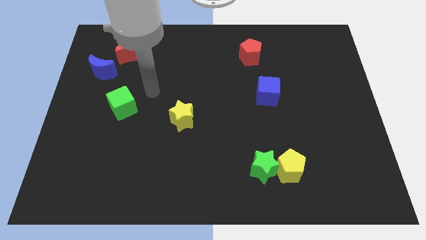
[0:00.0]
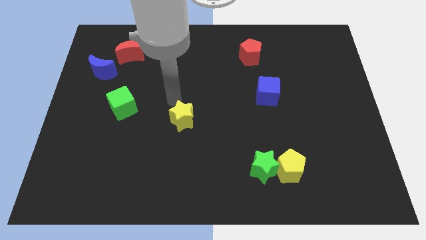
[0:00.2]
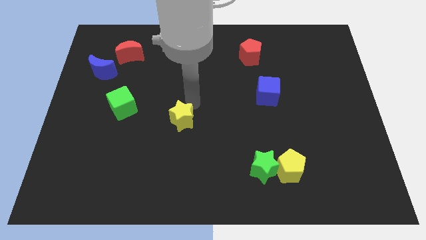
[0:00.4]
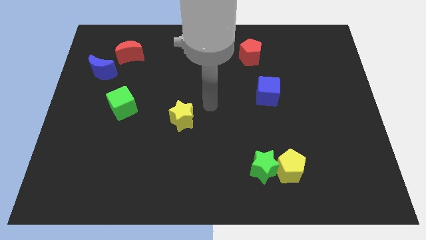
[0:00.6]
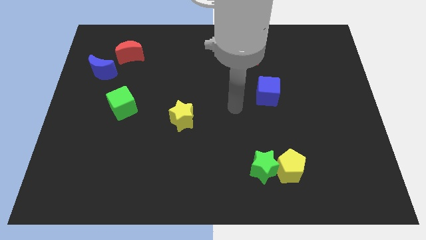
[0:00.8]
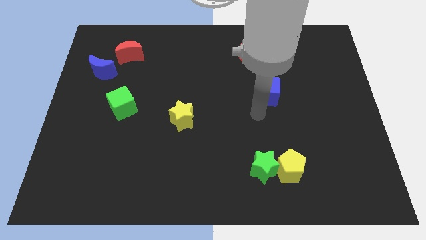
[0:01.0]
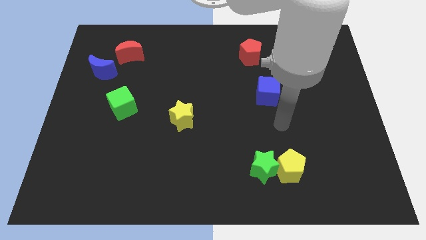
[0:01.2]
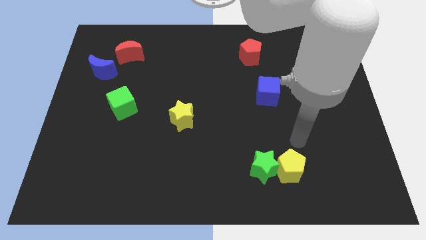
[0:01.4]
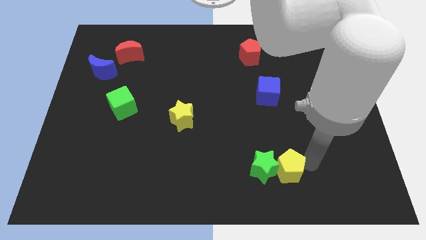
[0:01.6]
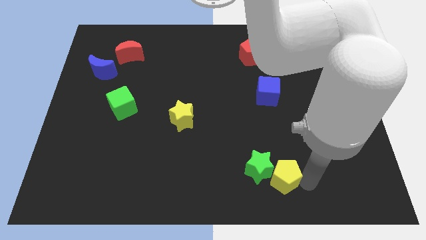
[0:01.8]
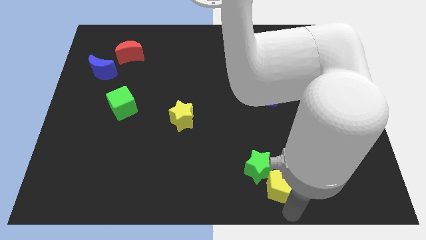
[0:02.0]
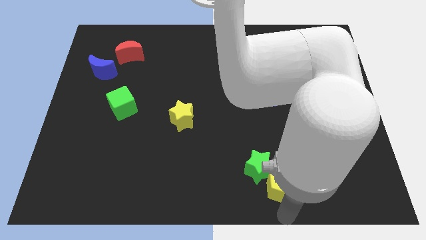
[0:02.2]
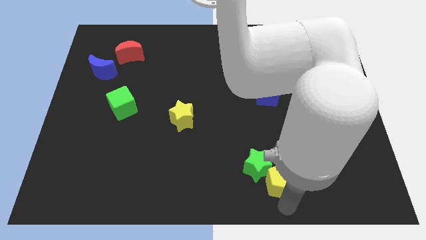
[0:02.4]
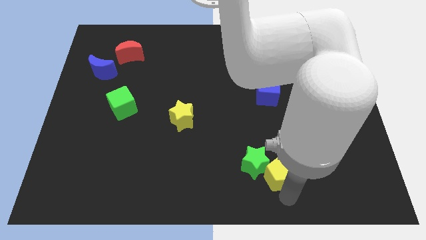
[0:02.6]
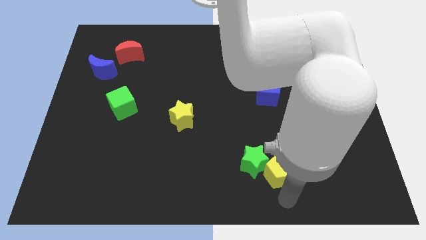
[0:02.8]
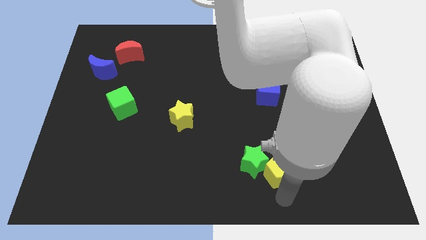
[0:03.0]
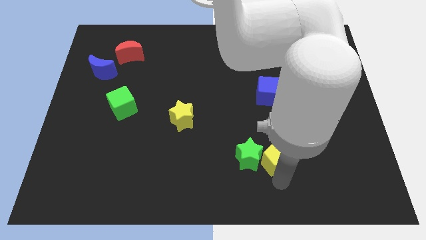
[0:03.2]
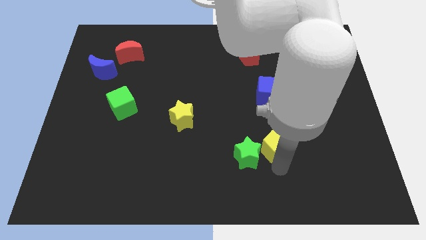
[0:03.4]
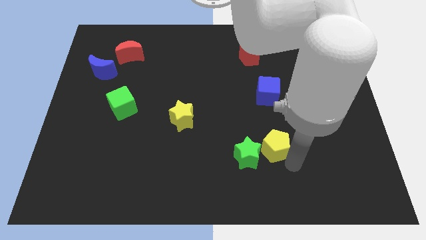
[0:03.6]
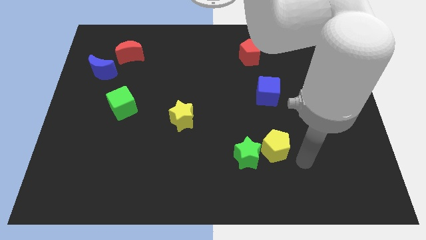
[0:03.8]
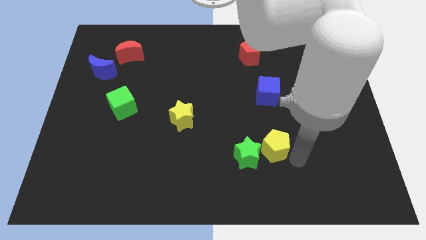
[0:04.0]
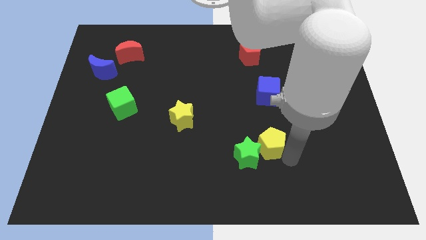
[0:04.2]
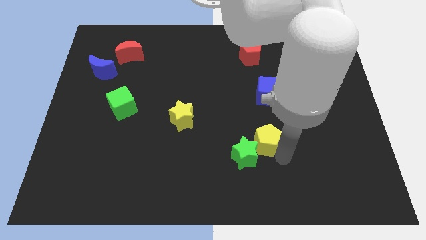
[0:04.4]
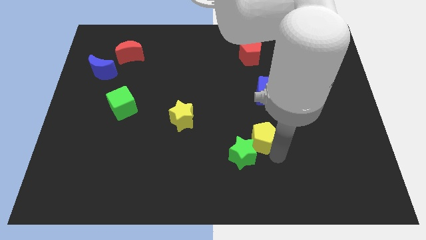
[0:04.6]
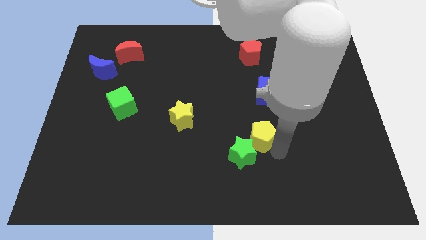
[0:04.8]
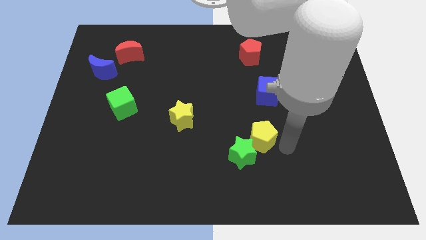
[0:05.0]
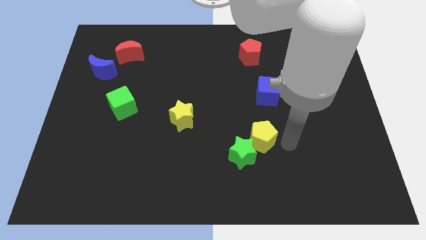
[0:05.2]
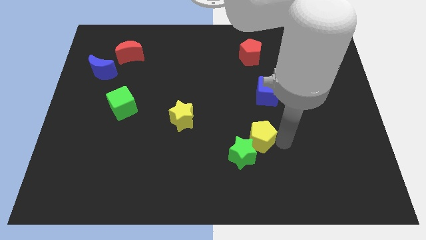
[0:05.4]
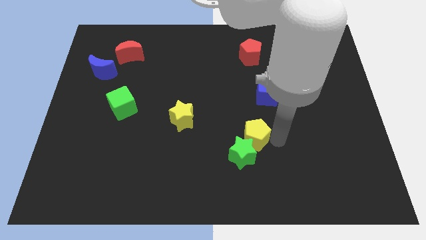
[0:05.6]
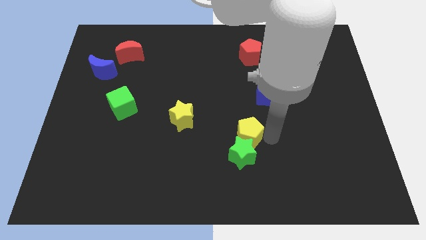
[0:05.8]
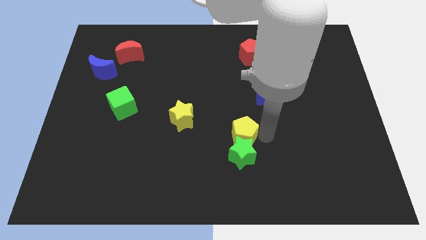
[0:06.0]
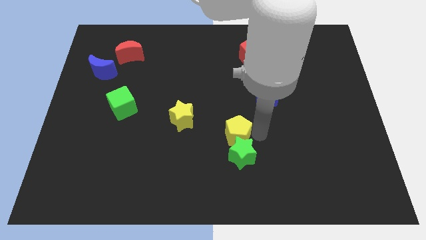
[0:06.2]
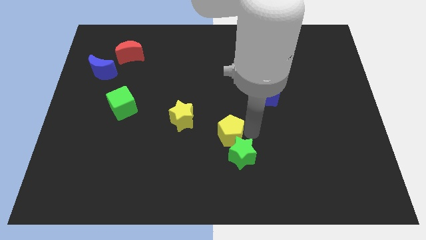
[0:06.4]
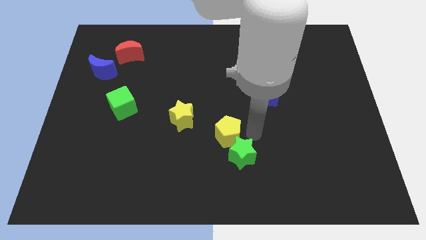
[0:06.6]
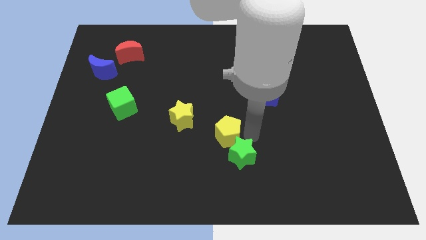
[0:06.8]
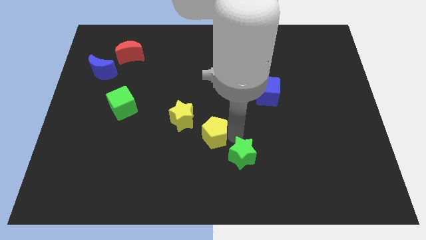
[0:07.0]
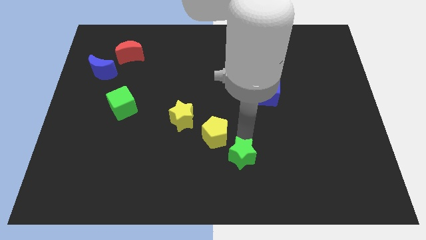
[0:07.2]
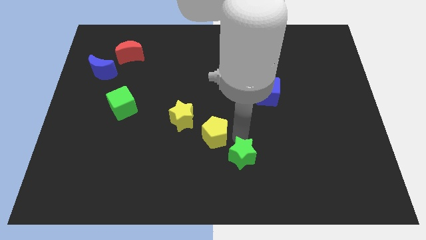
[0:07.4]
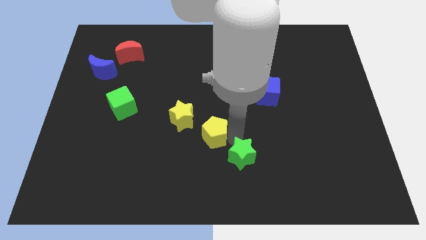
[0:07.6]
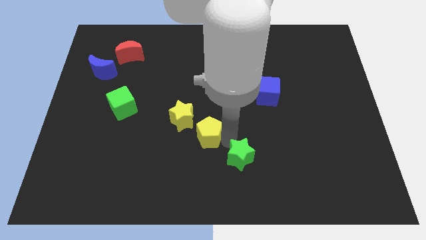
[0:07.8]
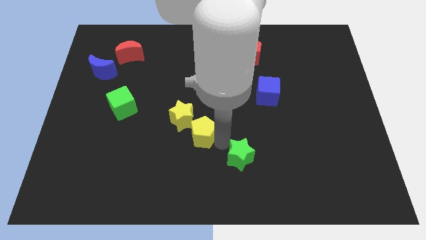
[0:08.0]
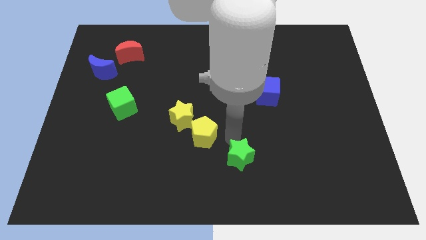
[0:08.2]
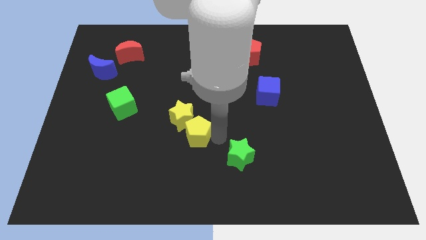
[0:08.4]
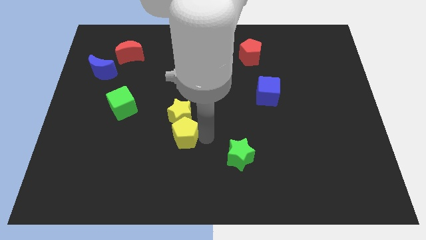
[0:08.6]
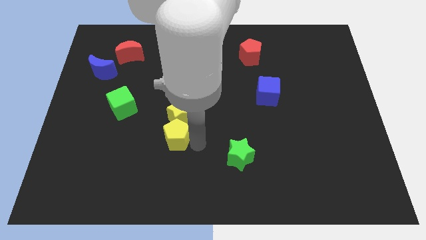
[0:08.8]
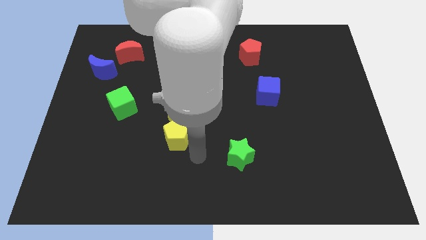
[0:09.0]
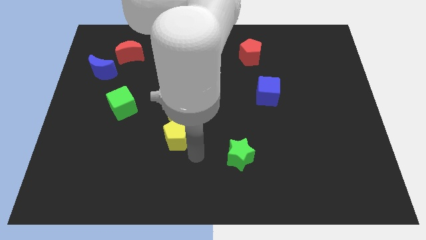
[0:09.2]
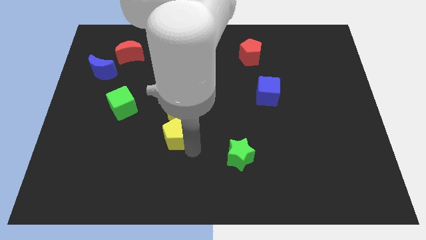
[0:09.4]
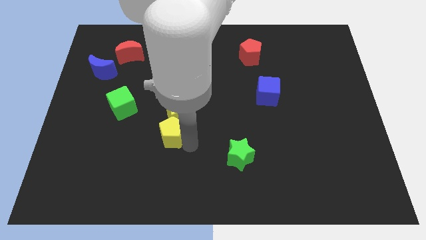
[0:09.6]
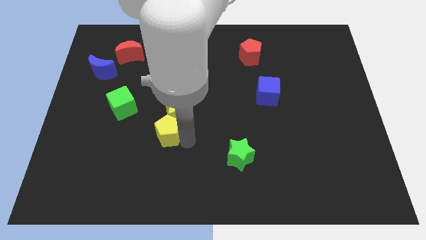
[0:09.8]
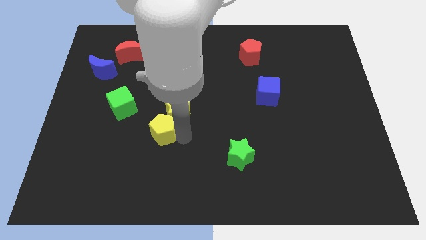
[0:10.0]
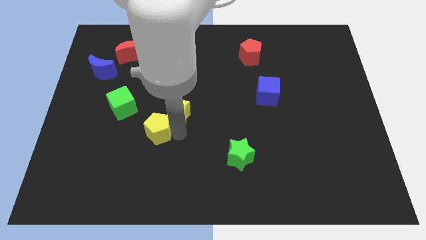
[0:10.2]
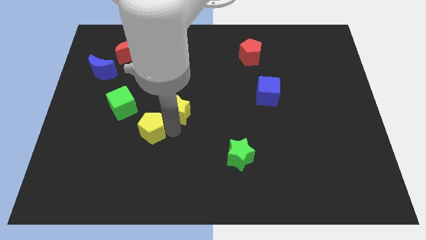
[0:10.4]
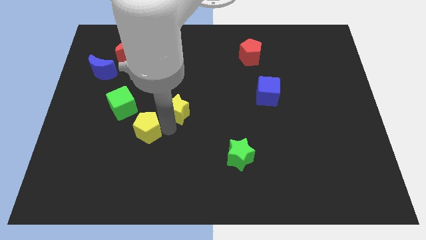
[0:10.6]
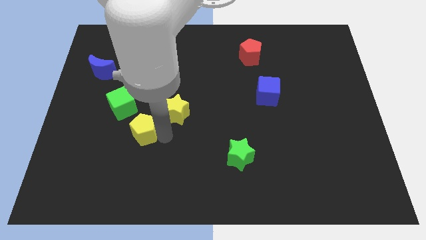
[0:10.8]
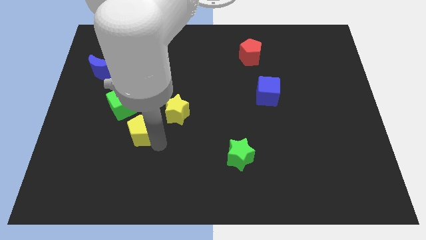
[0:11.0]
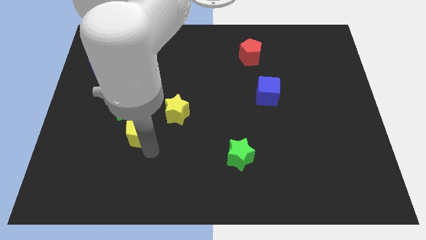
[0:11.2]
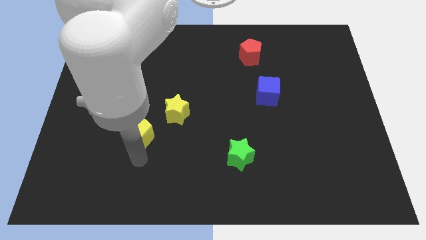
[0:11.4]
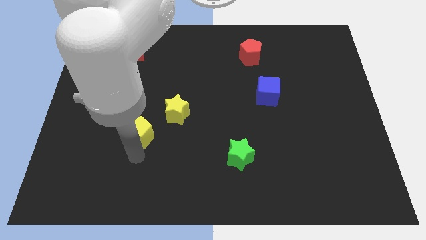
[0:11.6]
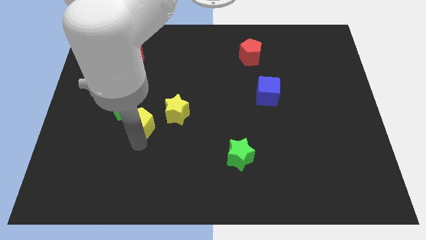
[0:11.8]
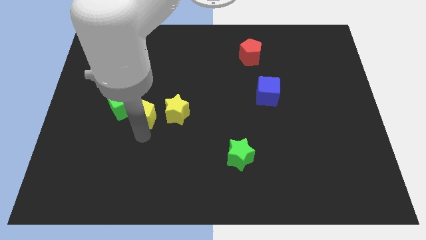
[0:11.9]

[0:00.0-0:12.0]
push the yellow pentagon towards the green cube

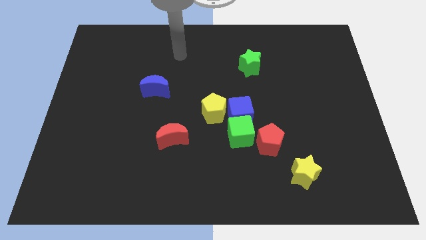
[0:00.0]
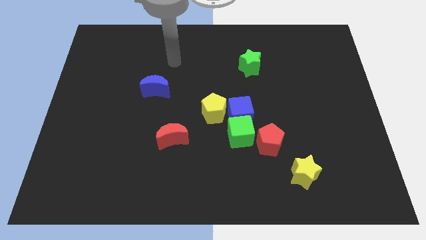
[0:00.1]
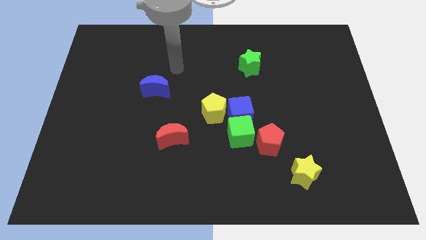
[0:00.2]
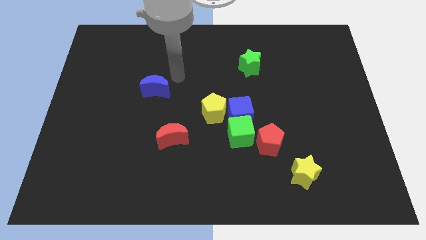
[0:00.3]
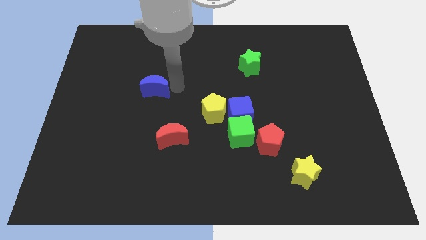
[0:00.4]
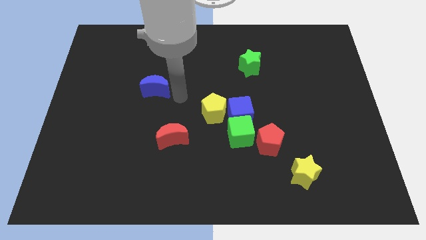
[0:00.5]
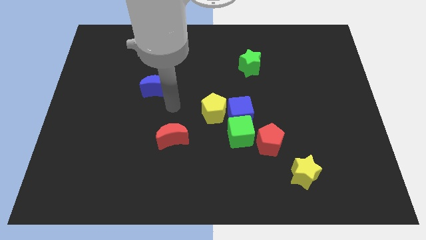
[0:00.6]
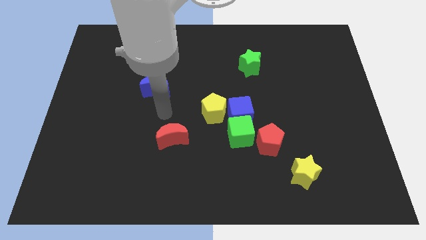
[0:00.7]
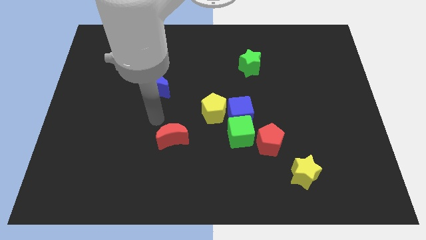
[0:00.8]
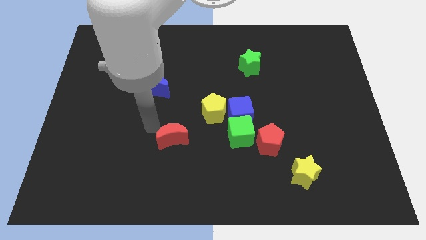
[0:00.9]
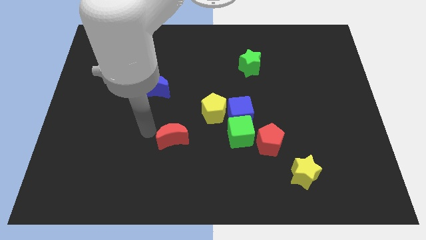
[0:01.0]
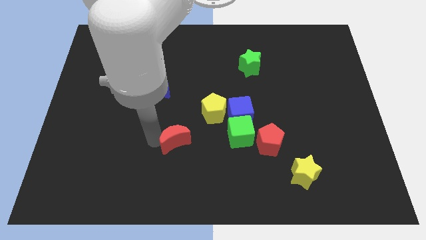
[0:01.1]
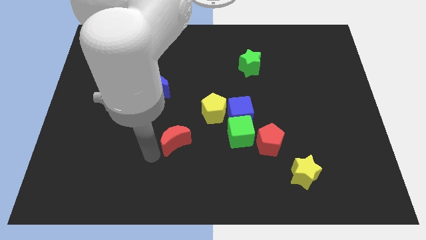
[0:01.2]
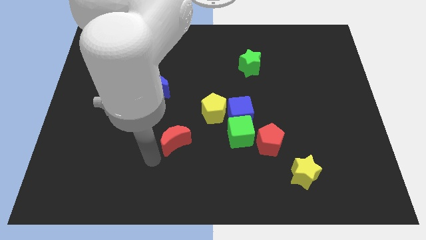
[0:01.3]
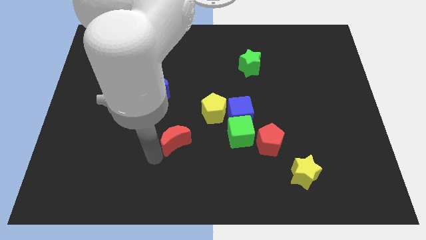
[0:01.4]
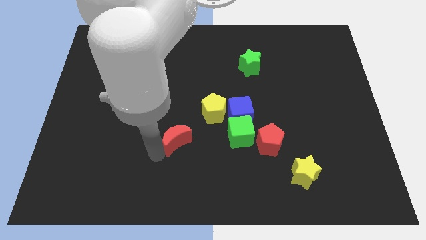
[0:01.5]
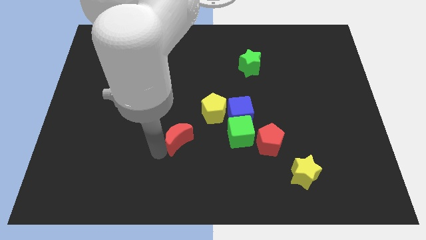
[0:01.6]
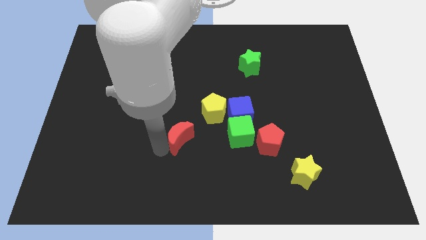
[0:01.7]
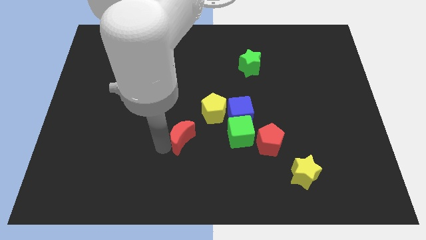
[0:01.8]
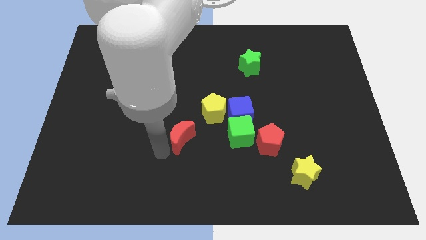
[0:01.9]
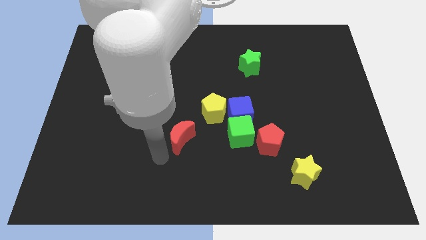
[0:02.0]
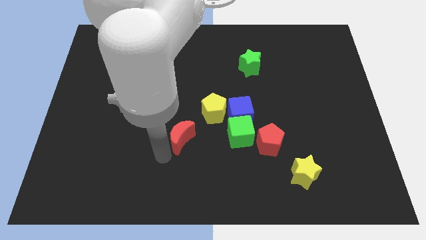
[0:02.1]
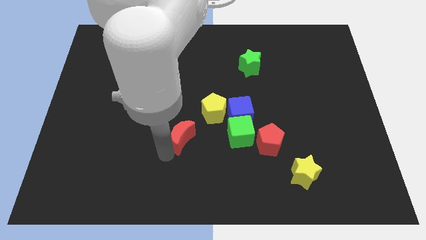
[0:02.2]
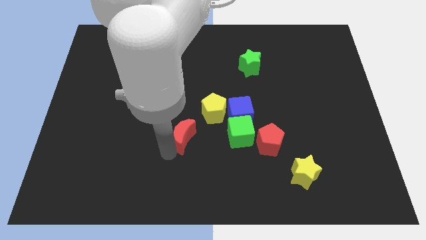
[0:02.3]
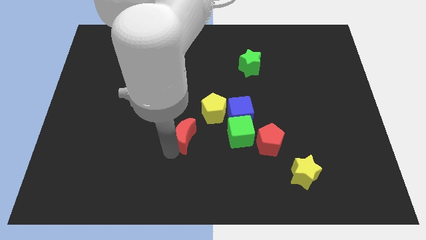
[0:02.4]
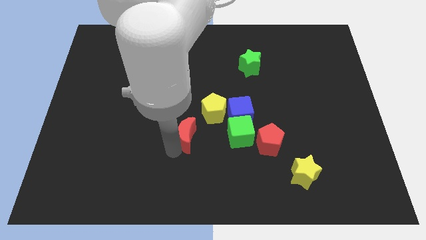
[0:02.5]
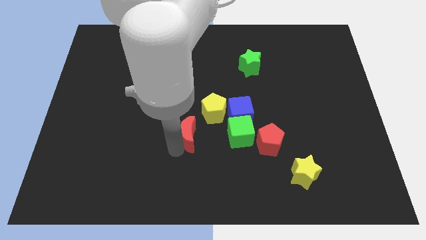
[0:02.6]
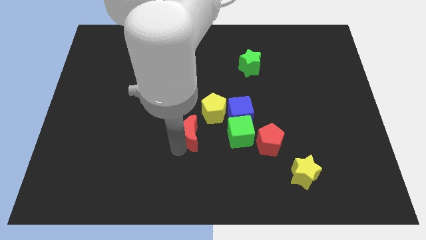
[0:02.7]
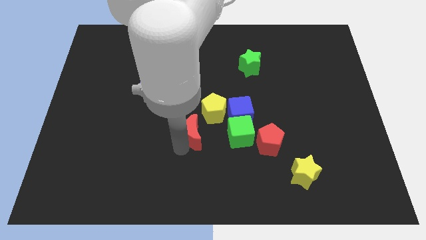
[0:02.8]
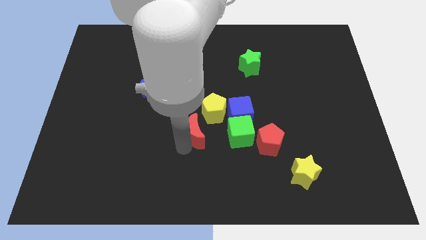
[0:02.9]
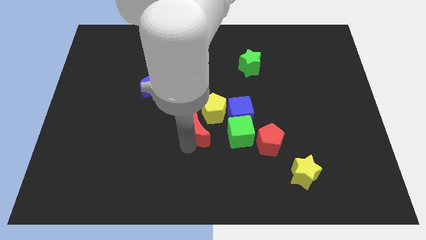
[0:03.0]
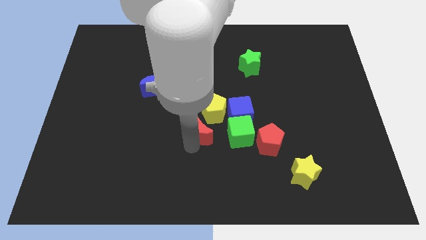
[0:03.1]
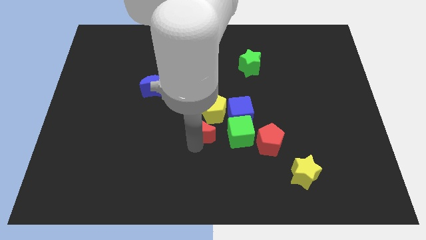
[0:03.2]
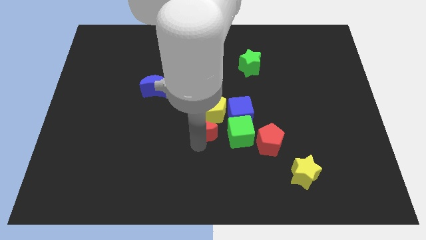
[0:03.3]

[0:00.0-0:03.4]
move the red moon to the yellow pentagon
